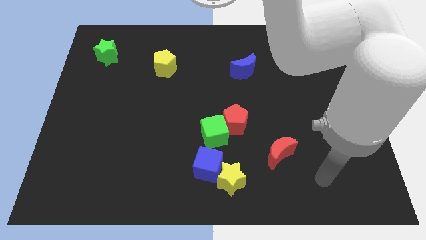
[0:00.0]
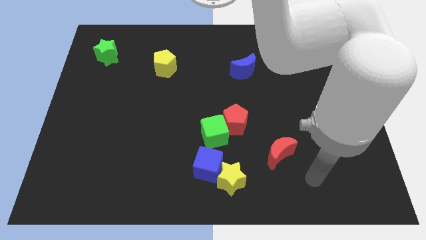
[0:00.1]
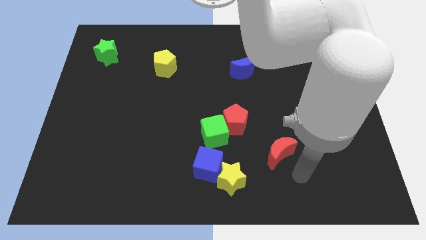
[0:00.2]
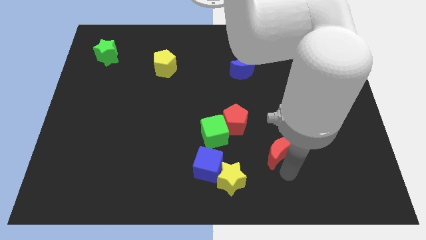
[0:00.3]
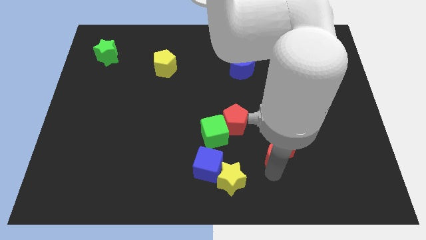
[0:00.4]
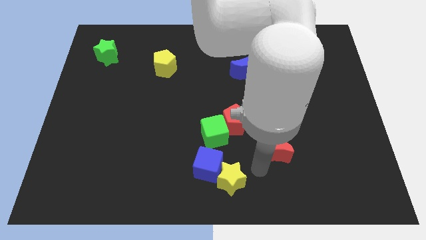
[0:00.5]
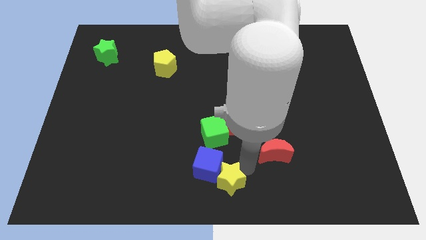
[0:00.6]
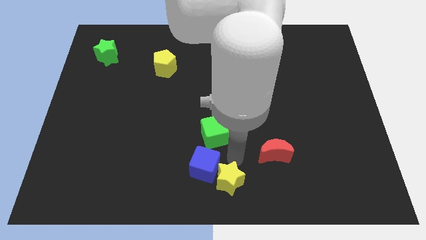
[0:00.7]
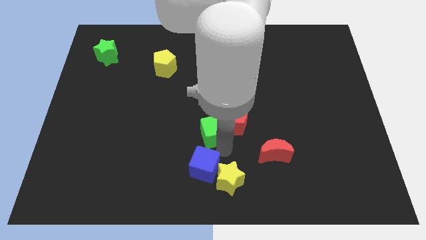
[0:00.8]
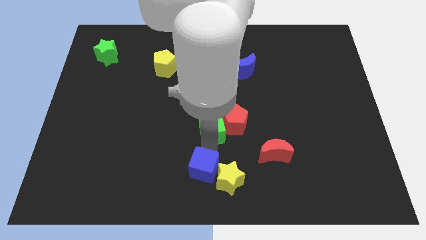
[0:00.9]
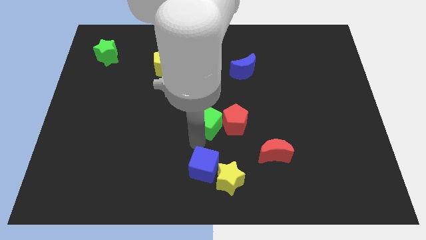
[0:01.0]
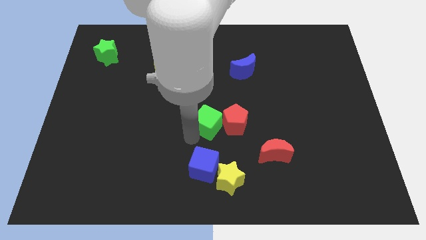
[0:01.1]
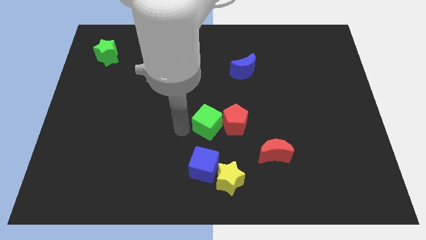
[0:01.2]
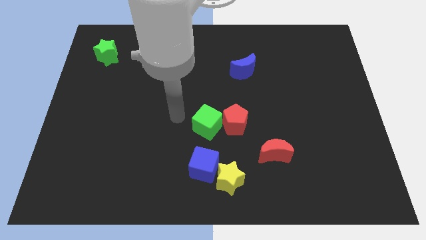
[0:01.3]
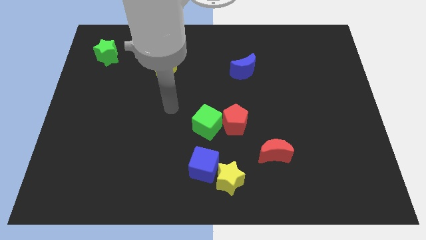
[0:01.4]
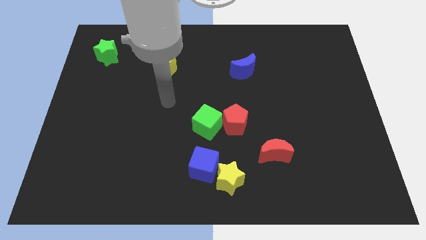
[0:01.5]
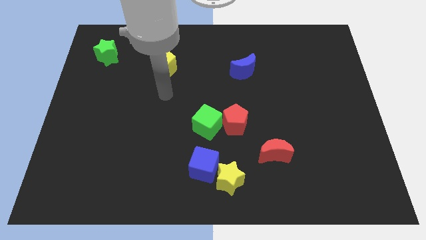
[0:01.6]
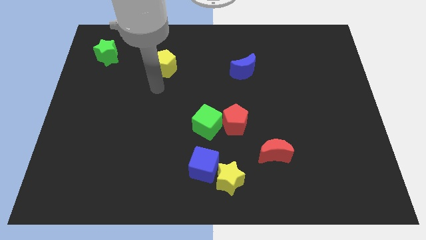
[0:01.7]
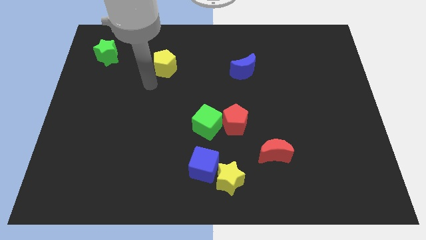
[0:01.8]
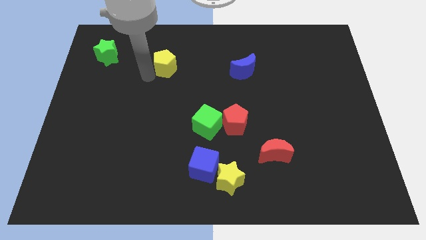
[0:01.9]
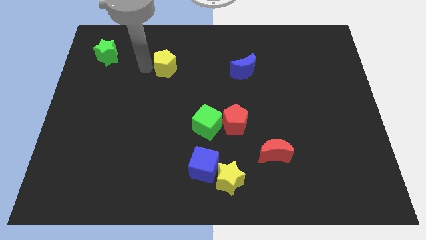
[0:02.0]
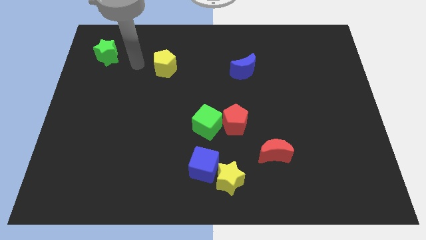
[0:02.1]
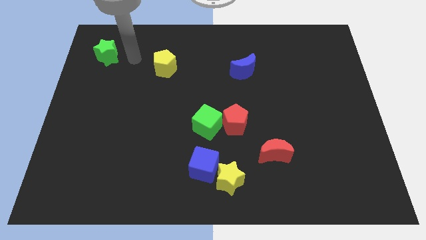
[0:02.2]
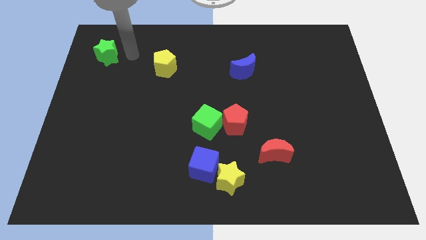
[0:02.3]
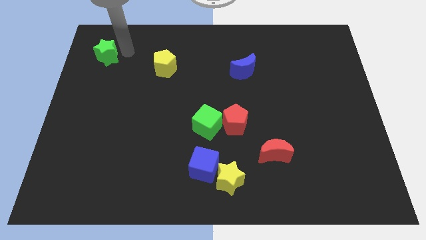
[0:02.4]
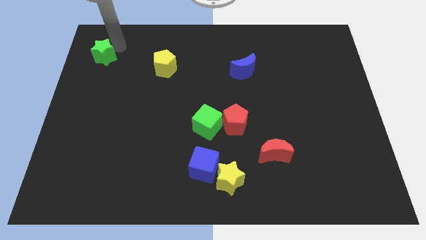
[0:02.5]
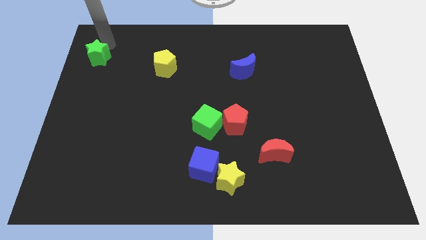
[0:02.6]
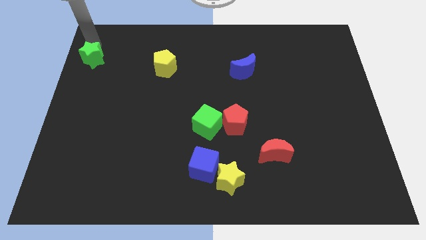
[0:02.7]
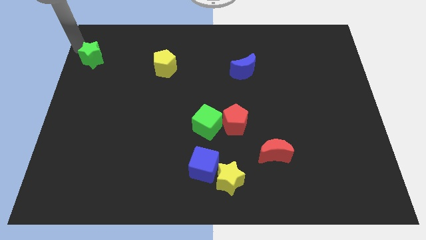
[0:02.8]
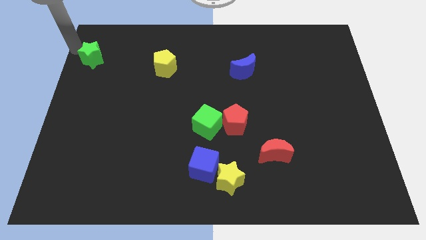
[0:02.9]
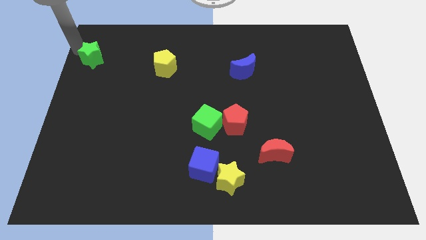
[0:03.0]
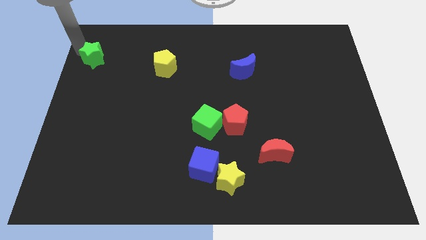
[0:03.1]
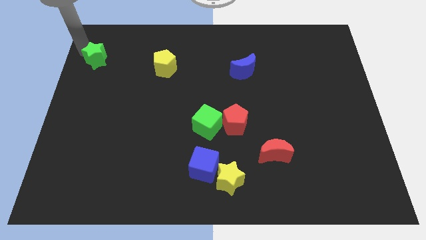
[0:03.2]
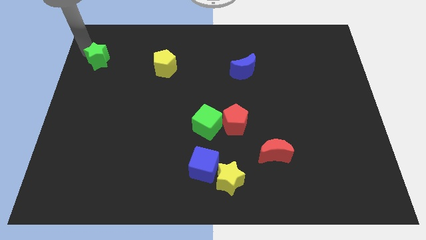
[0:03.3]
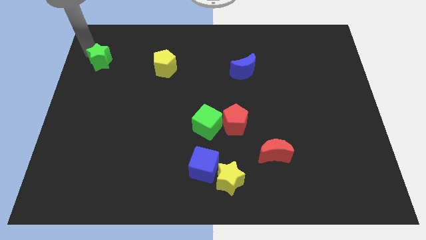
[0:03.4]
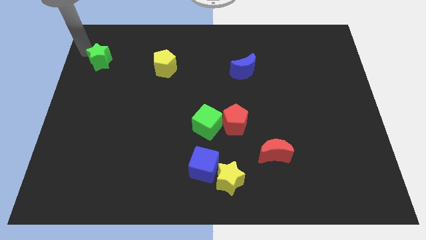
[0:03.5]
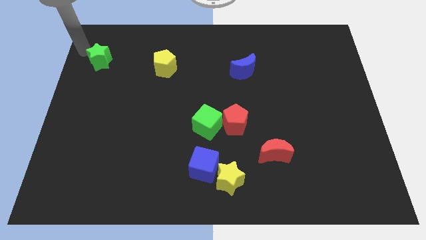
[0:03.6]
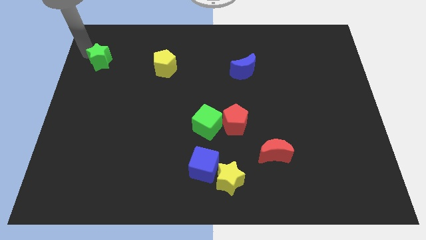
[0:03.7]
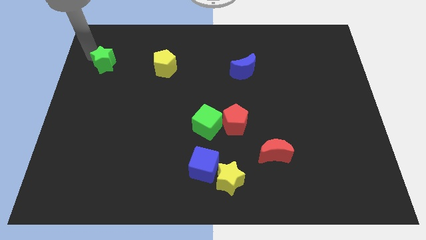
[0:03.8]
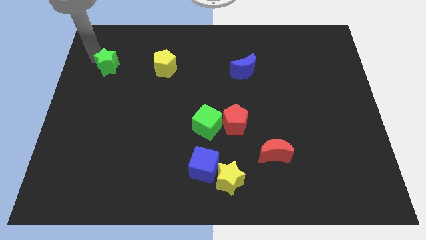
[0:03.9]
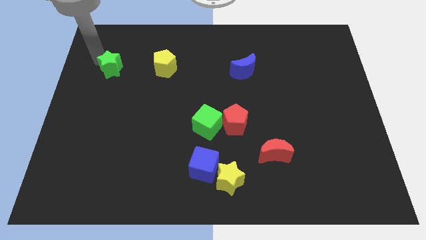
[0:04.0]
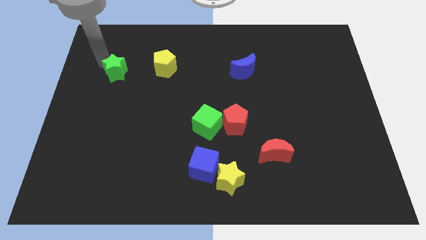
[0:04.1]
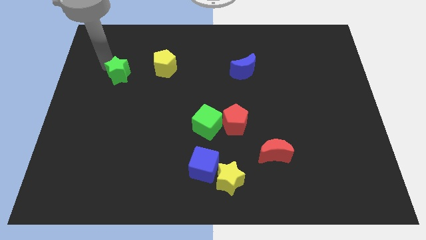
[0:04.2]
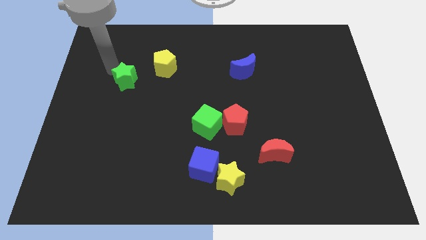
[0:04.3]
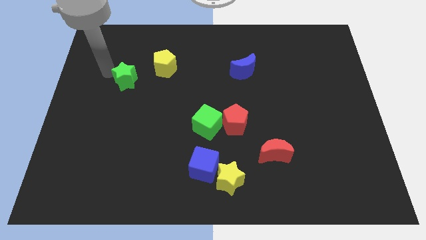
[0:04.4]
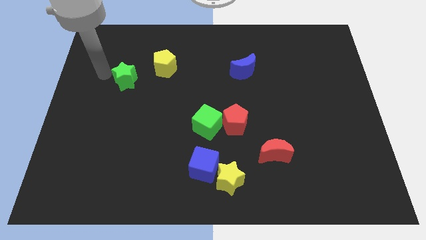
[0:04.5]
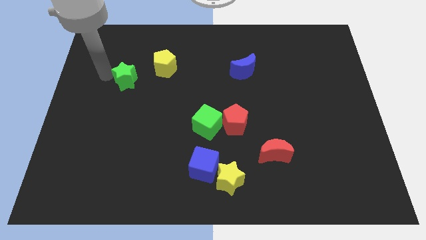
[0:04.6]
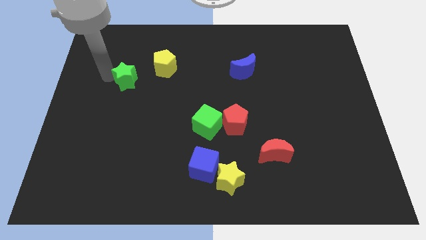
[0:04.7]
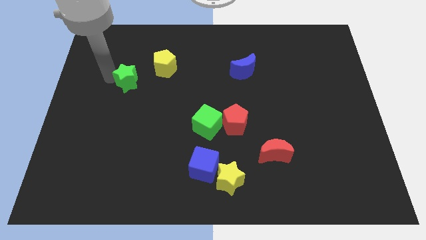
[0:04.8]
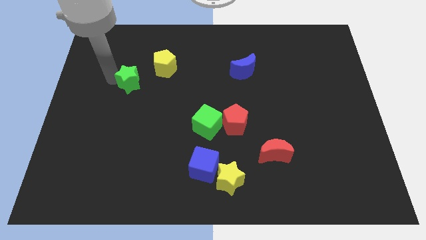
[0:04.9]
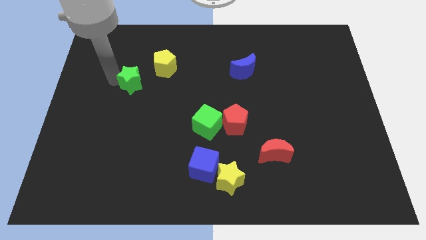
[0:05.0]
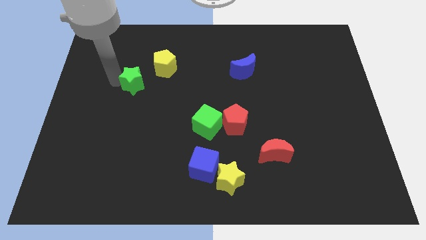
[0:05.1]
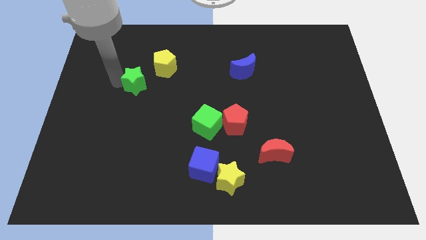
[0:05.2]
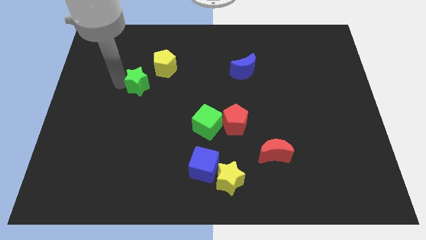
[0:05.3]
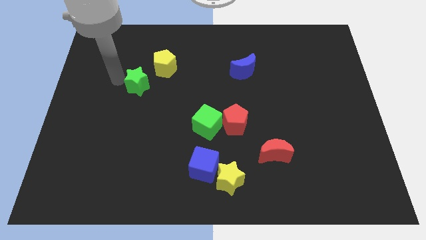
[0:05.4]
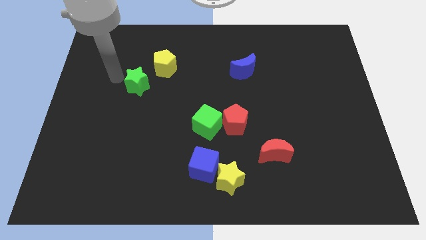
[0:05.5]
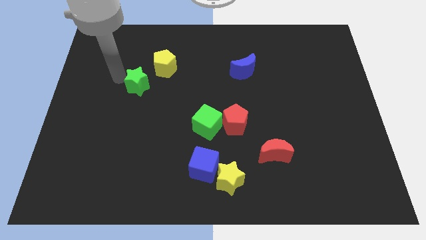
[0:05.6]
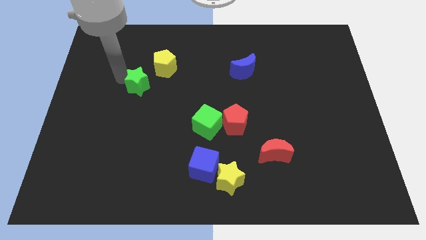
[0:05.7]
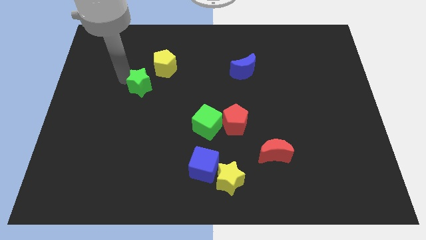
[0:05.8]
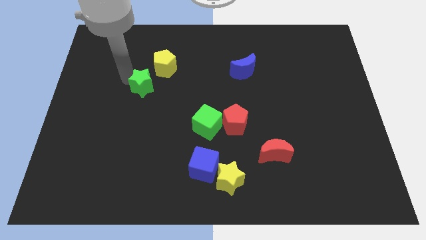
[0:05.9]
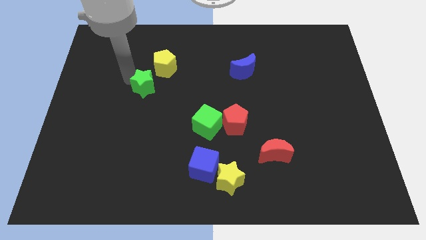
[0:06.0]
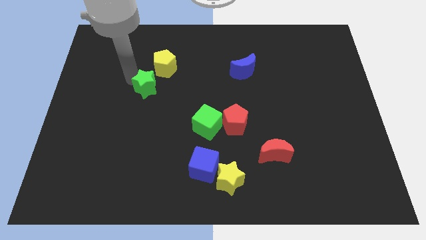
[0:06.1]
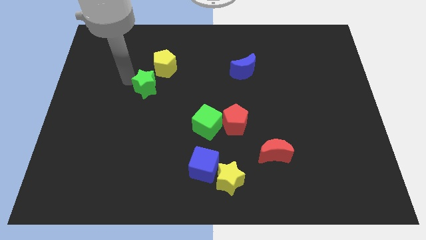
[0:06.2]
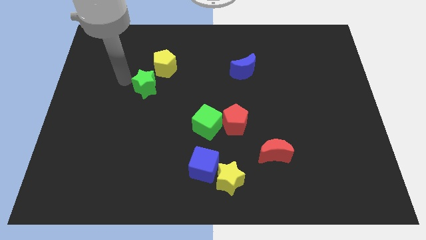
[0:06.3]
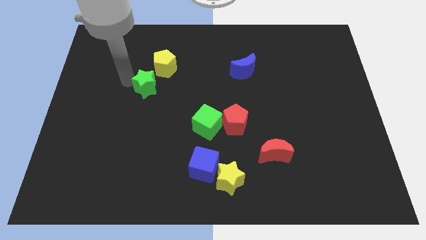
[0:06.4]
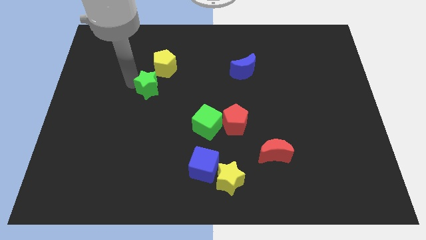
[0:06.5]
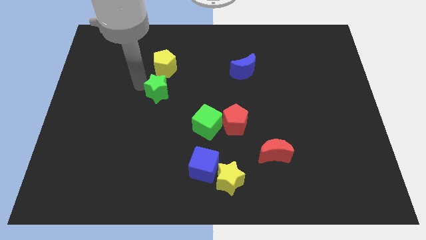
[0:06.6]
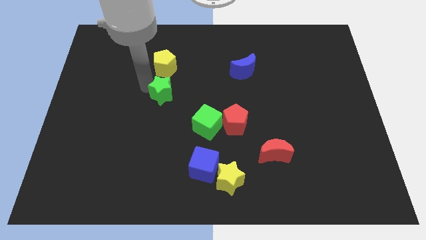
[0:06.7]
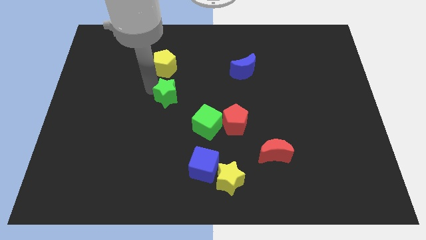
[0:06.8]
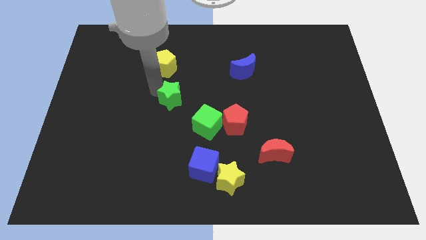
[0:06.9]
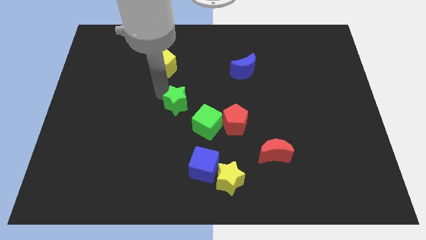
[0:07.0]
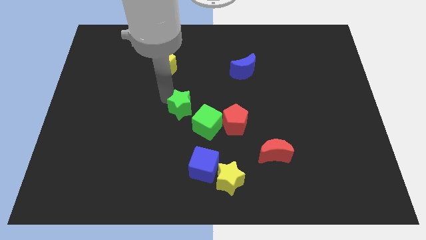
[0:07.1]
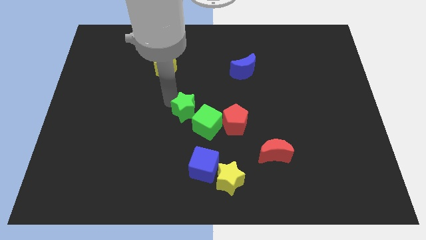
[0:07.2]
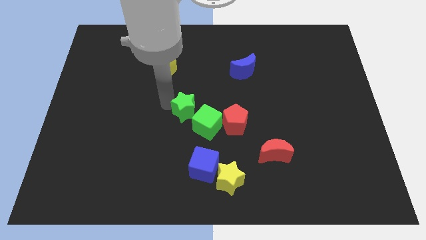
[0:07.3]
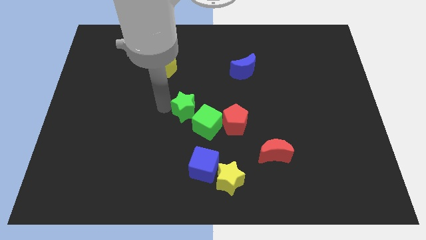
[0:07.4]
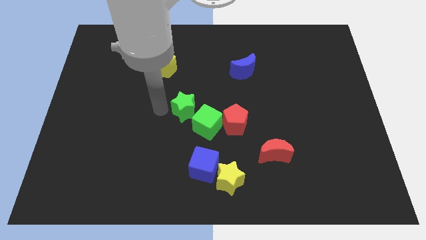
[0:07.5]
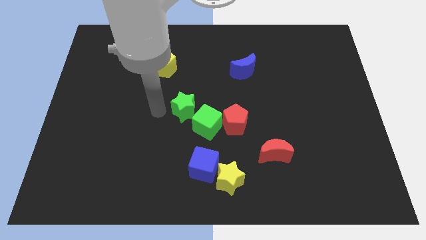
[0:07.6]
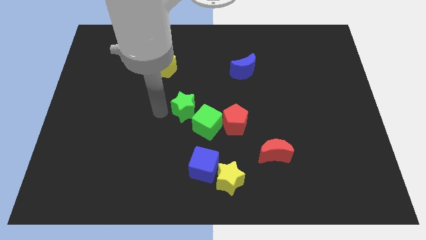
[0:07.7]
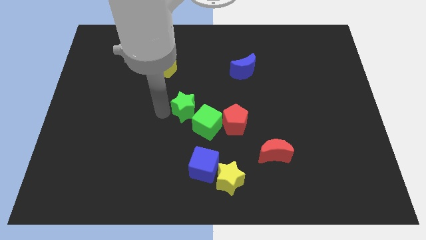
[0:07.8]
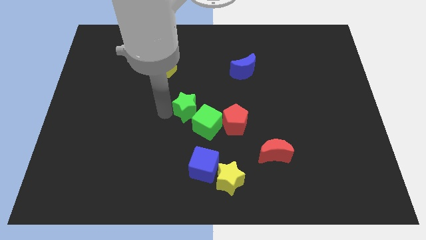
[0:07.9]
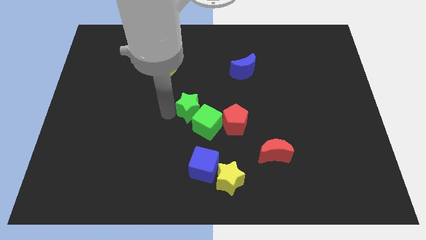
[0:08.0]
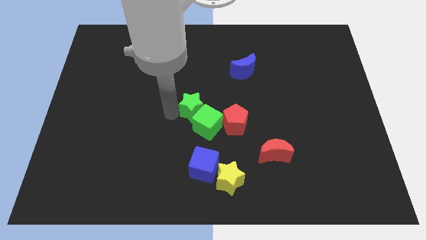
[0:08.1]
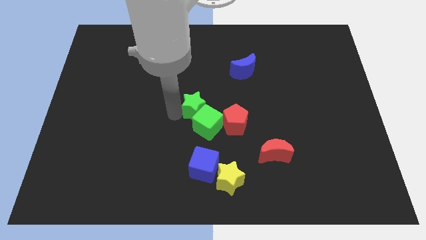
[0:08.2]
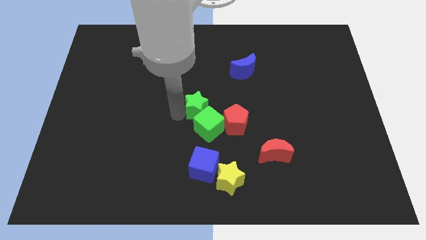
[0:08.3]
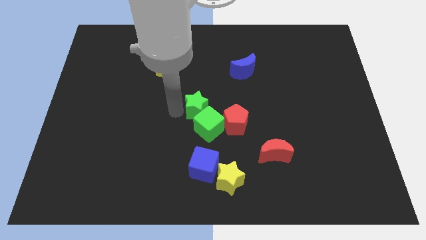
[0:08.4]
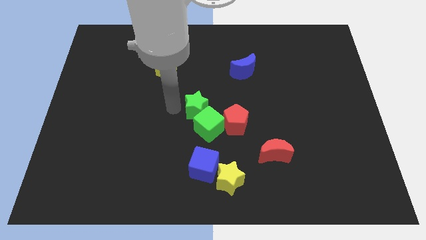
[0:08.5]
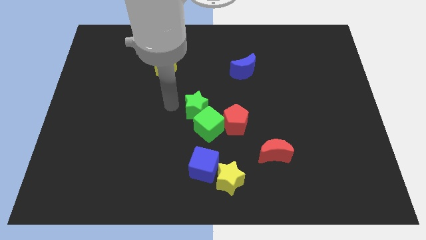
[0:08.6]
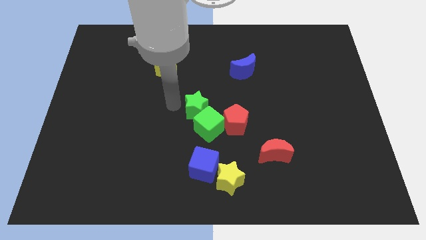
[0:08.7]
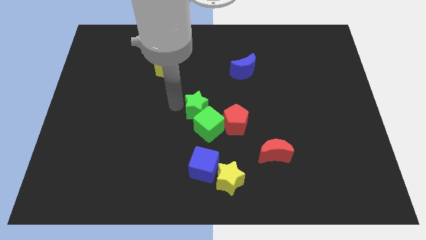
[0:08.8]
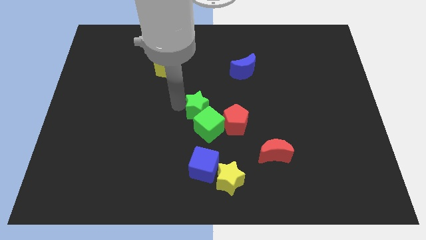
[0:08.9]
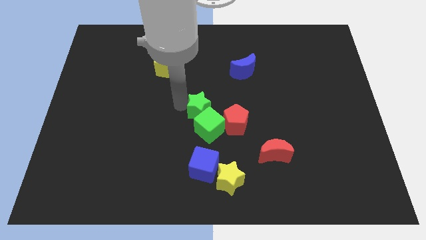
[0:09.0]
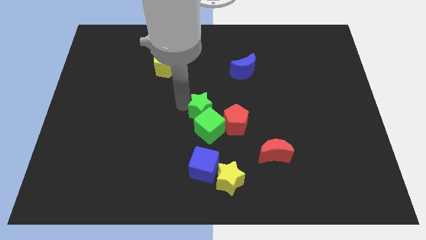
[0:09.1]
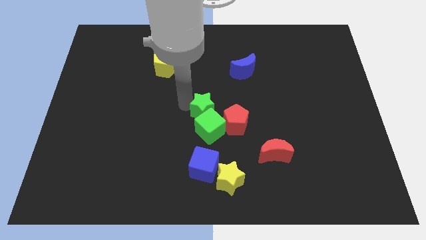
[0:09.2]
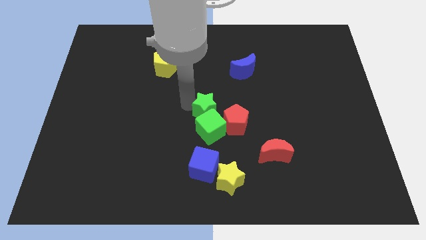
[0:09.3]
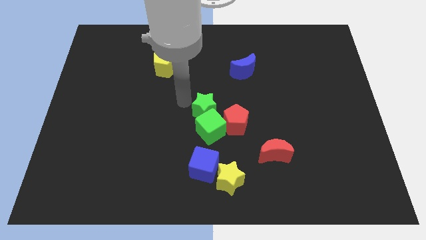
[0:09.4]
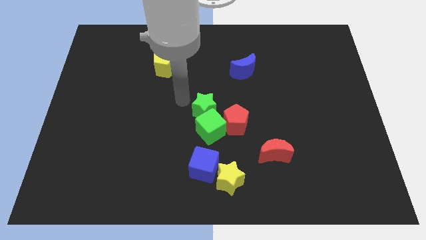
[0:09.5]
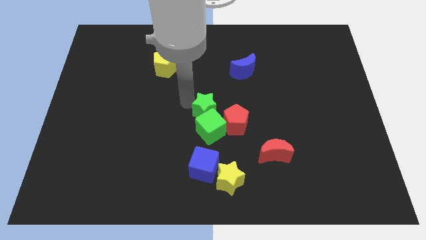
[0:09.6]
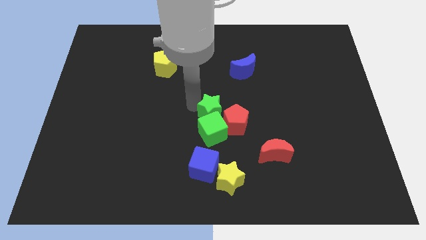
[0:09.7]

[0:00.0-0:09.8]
move the green star next to the red pentagon
